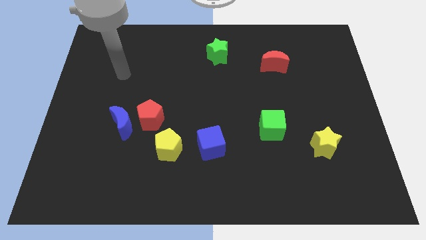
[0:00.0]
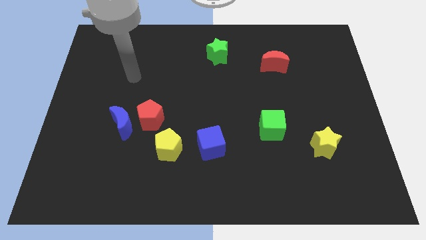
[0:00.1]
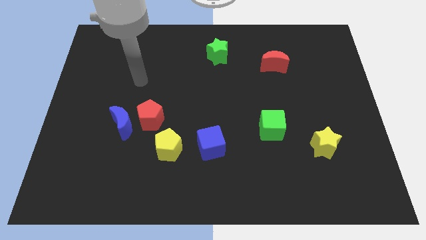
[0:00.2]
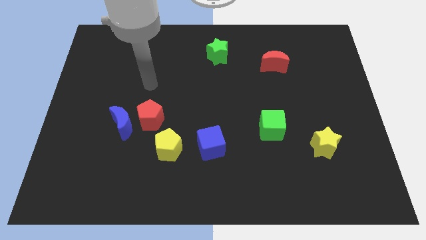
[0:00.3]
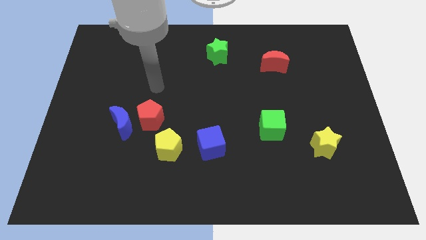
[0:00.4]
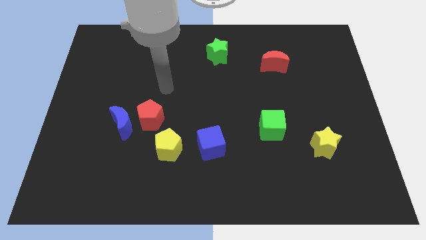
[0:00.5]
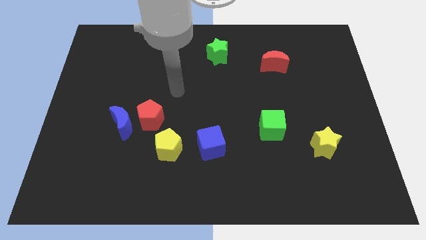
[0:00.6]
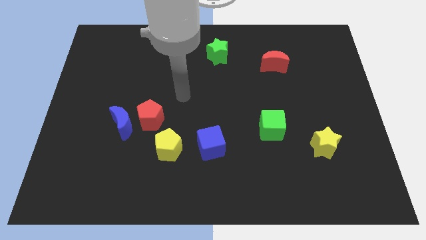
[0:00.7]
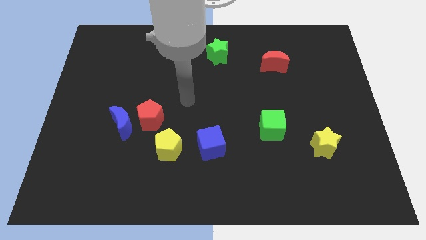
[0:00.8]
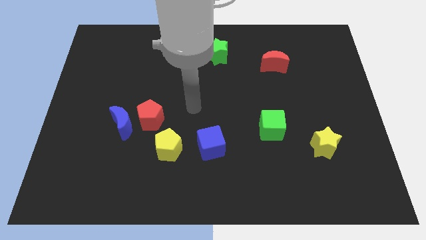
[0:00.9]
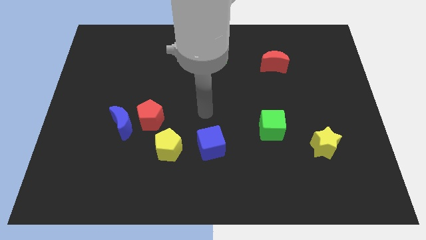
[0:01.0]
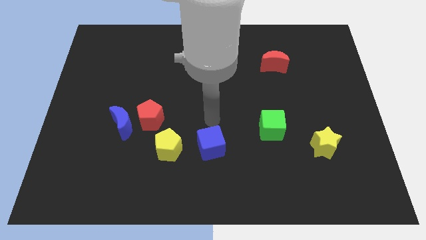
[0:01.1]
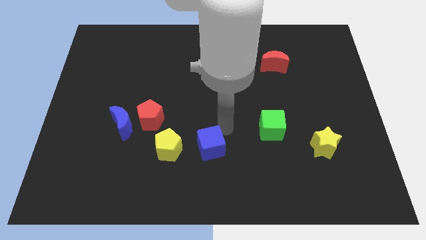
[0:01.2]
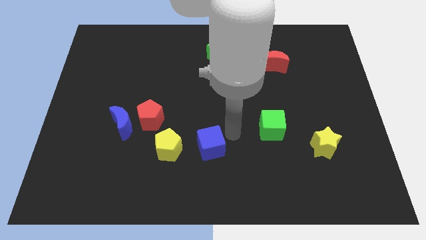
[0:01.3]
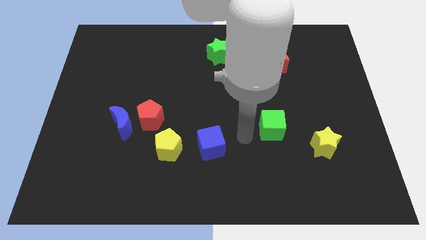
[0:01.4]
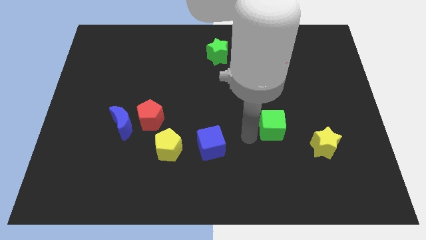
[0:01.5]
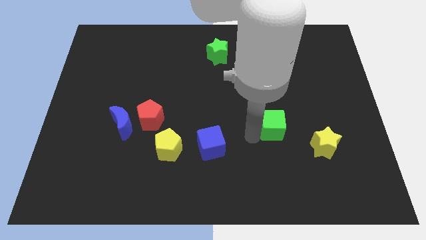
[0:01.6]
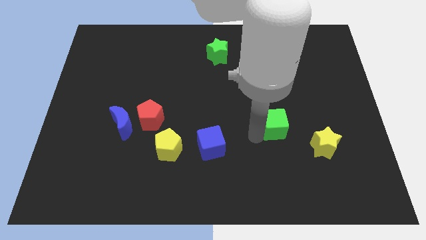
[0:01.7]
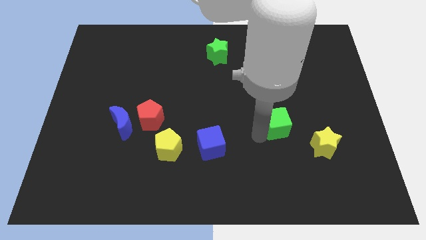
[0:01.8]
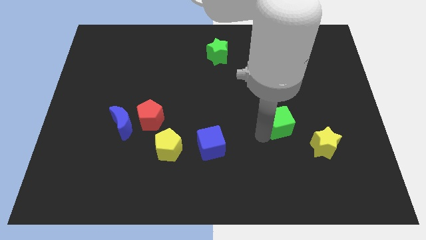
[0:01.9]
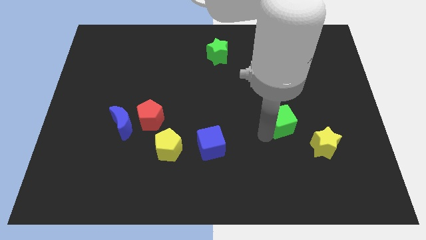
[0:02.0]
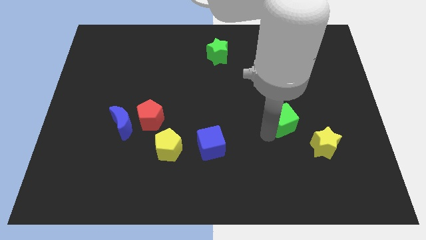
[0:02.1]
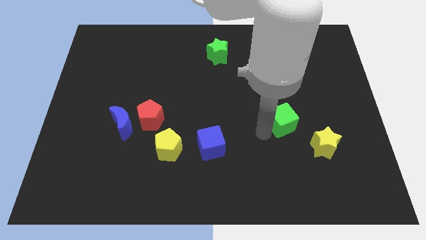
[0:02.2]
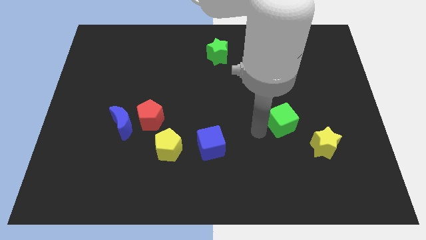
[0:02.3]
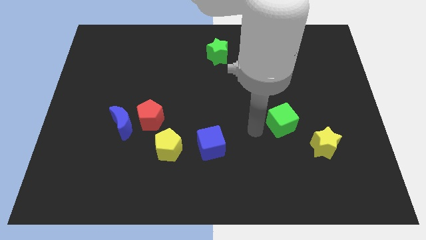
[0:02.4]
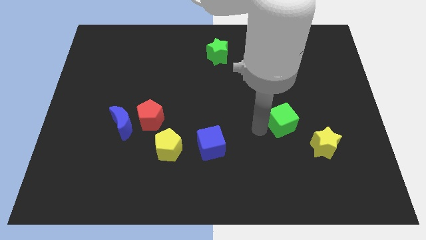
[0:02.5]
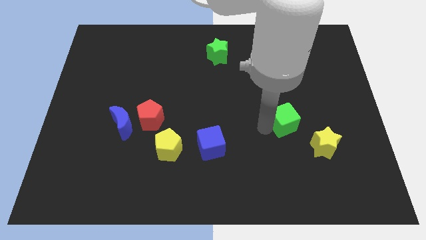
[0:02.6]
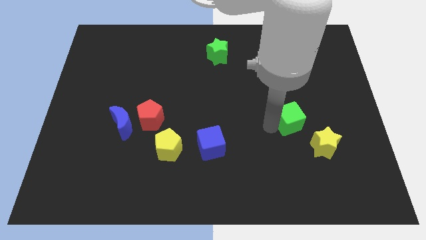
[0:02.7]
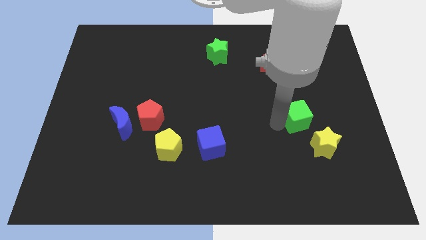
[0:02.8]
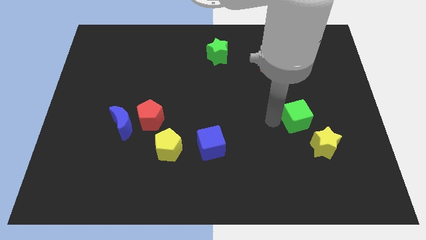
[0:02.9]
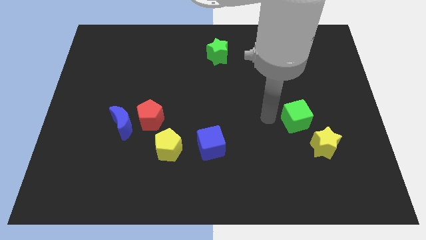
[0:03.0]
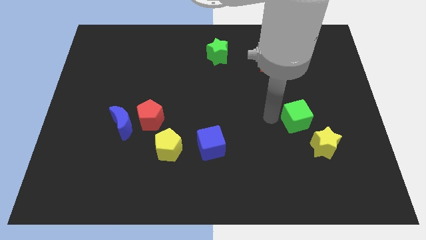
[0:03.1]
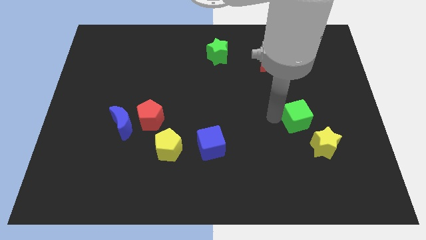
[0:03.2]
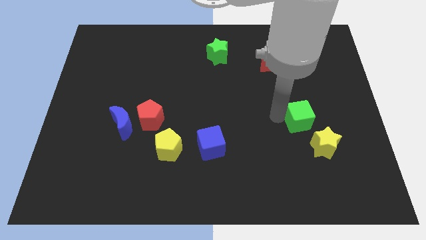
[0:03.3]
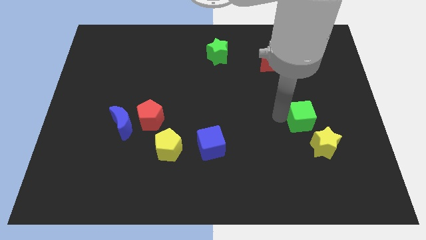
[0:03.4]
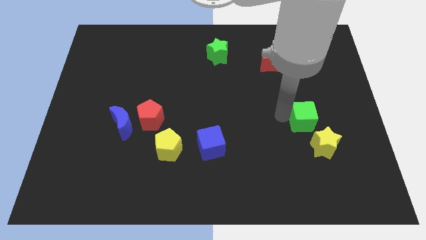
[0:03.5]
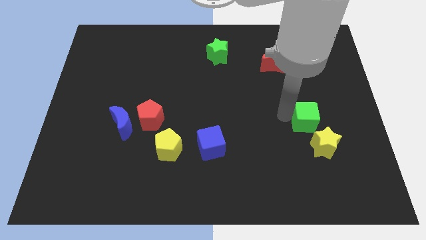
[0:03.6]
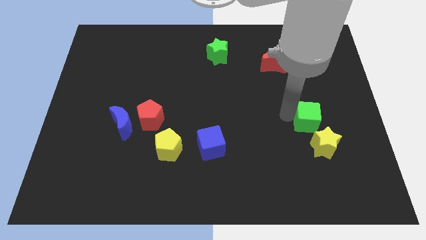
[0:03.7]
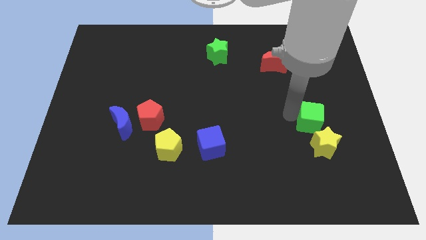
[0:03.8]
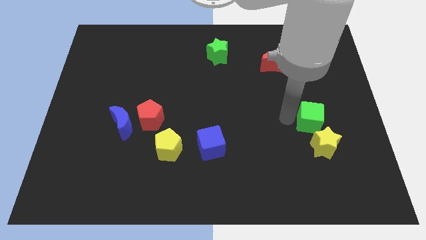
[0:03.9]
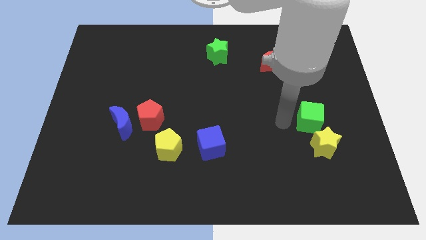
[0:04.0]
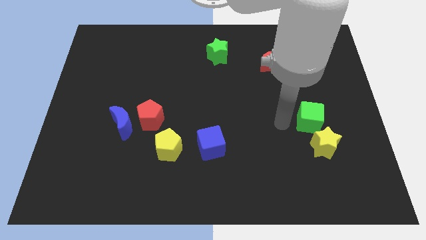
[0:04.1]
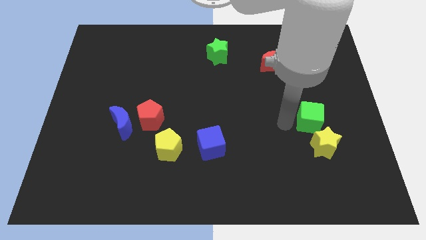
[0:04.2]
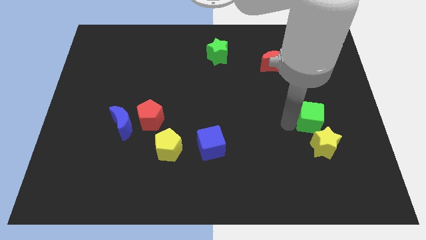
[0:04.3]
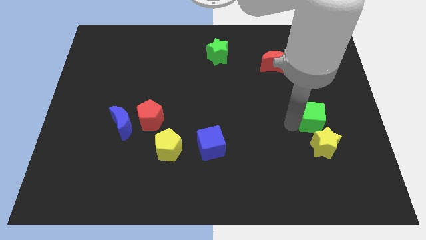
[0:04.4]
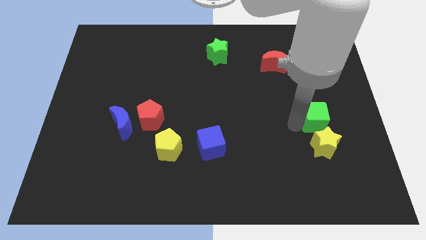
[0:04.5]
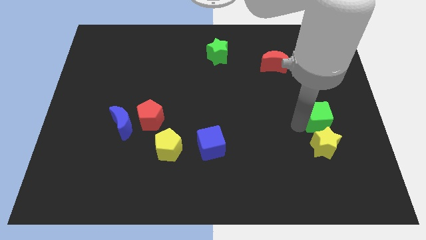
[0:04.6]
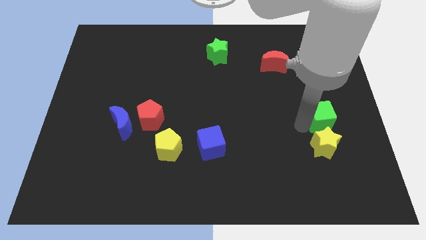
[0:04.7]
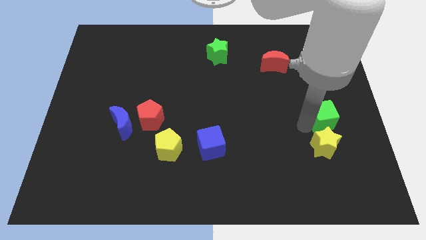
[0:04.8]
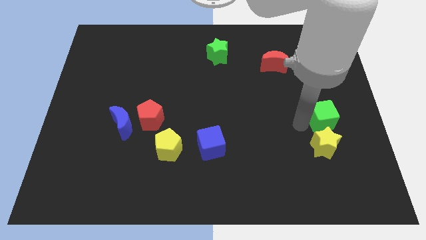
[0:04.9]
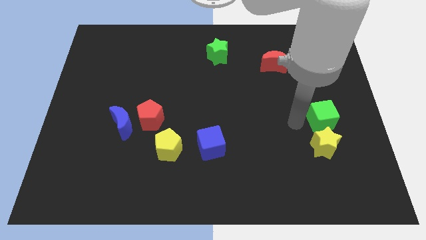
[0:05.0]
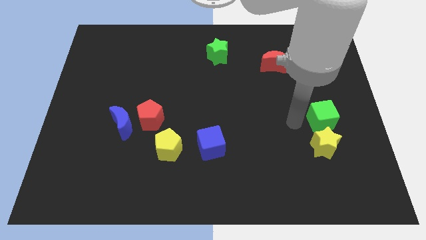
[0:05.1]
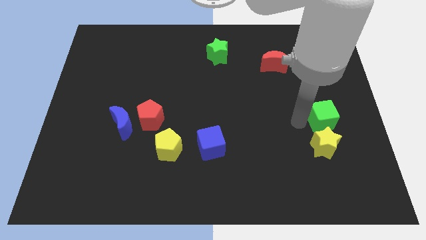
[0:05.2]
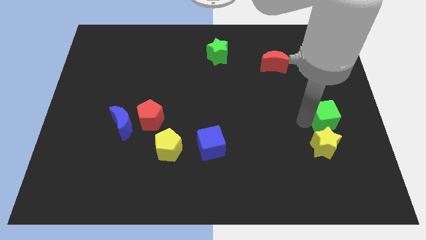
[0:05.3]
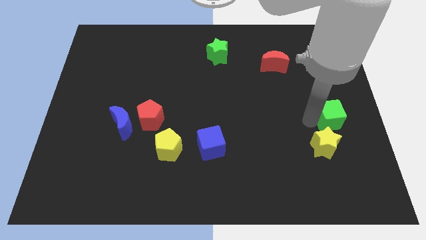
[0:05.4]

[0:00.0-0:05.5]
slide the green cube to the center right

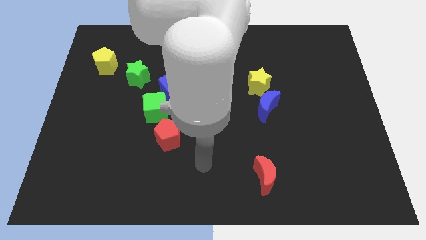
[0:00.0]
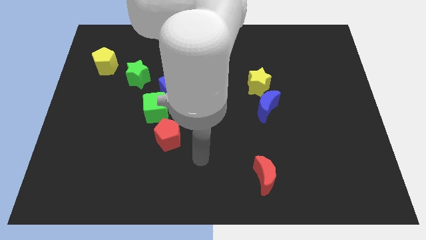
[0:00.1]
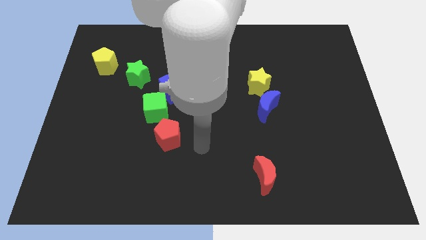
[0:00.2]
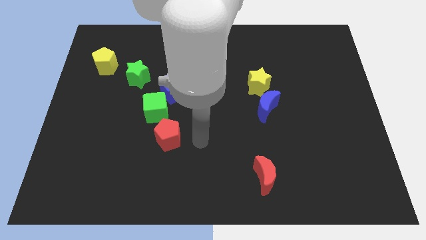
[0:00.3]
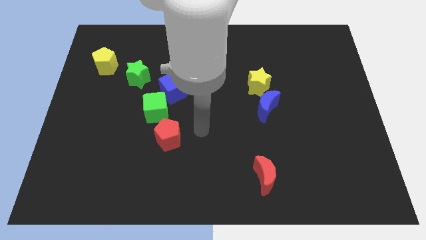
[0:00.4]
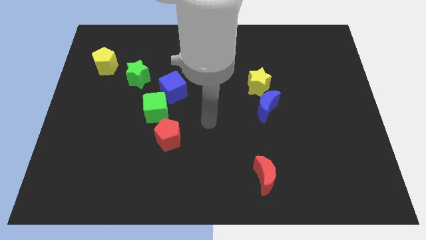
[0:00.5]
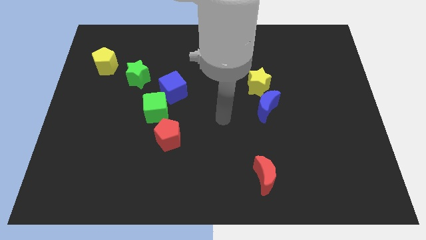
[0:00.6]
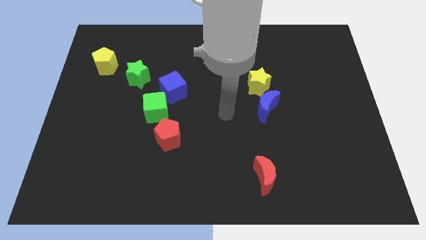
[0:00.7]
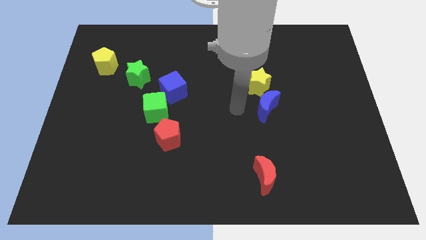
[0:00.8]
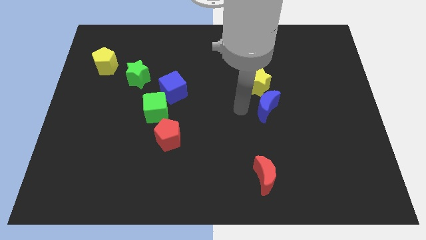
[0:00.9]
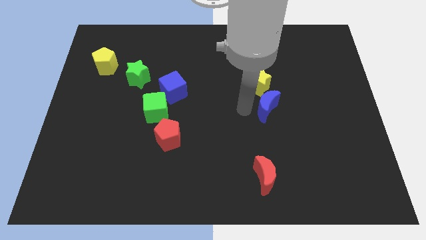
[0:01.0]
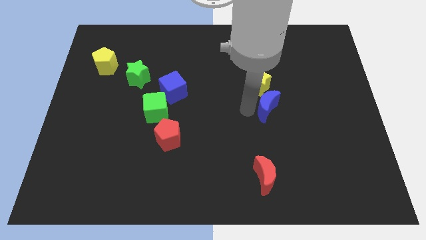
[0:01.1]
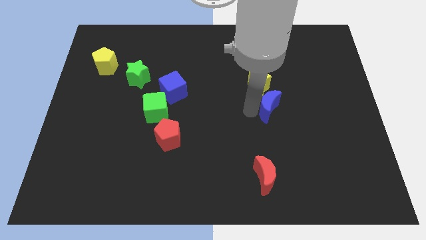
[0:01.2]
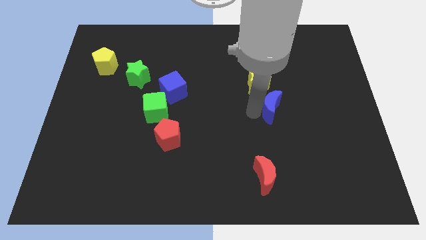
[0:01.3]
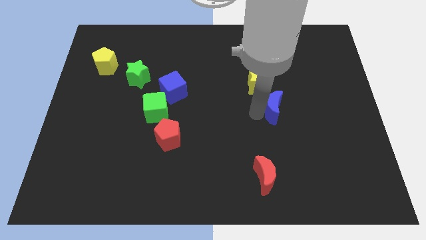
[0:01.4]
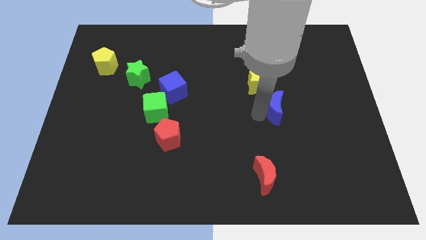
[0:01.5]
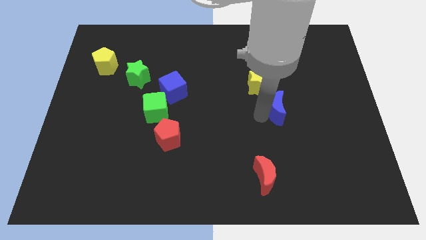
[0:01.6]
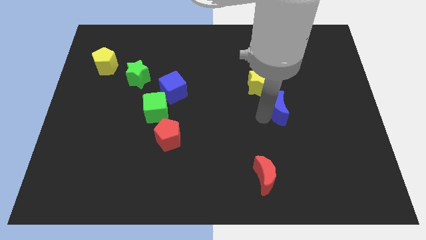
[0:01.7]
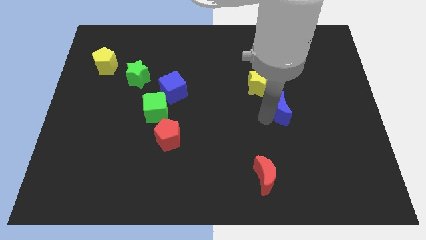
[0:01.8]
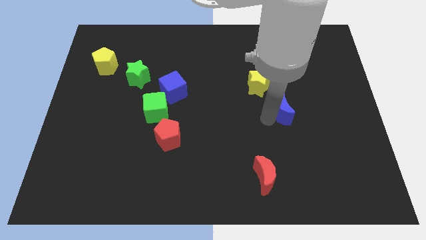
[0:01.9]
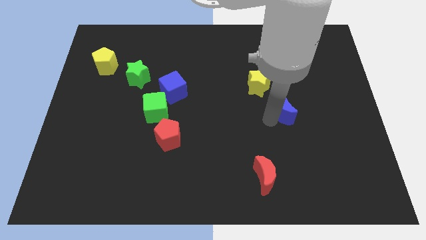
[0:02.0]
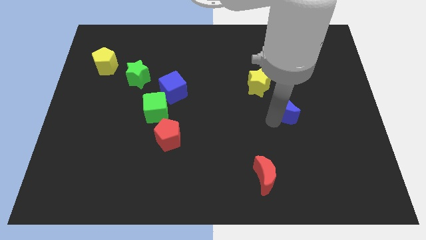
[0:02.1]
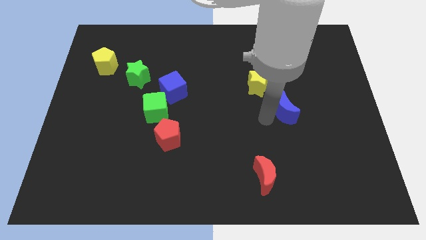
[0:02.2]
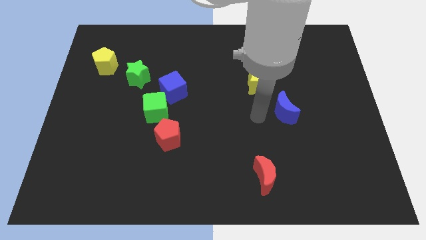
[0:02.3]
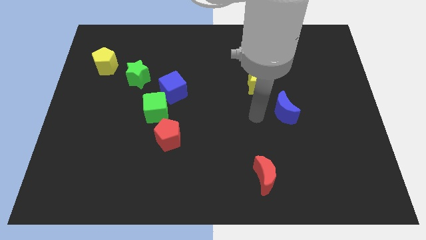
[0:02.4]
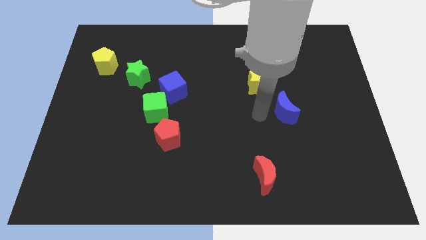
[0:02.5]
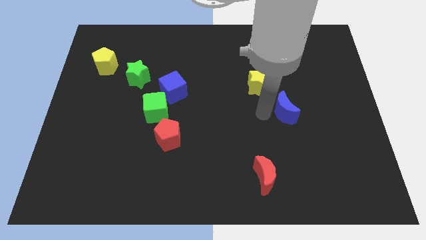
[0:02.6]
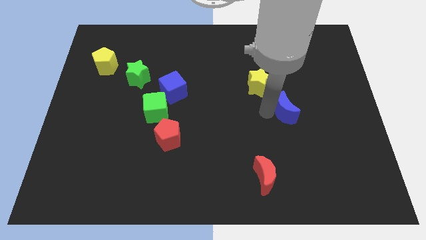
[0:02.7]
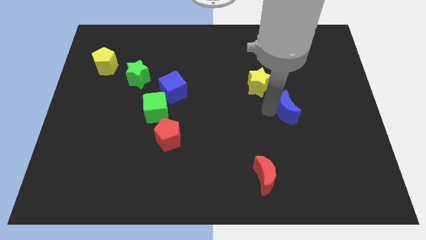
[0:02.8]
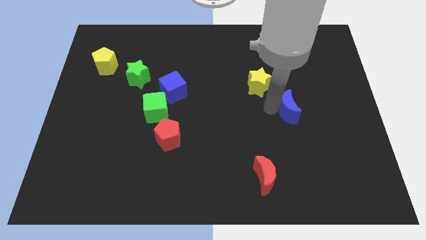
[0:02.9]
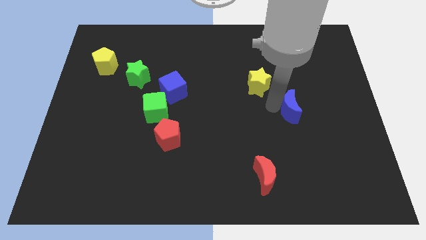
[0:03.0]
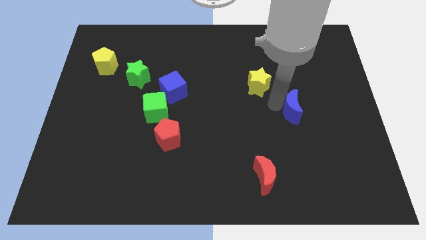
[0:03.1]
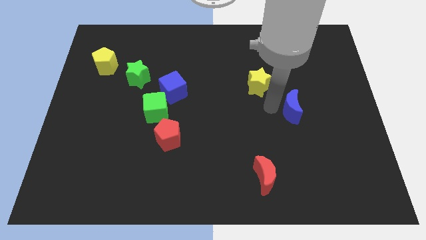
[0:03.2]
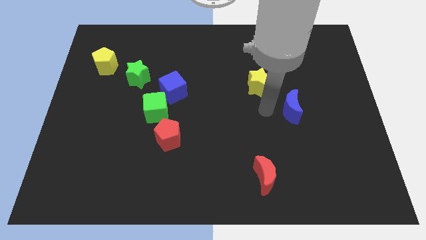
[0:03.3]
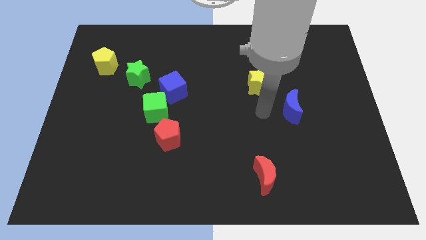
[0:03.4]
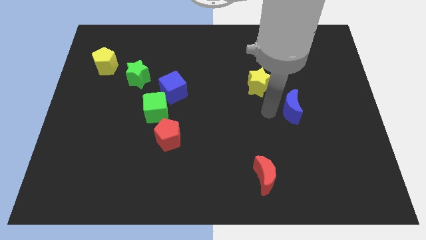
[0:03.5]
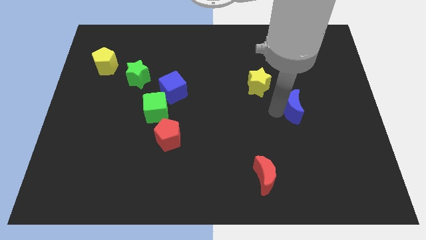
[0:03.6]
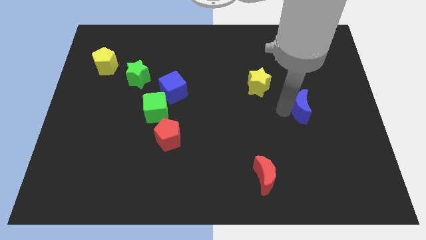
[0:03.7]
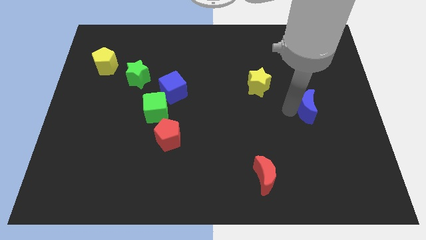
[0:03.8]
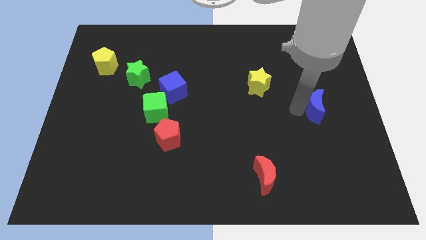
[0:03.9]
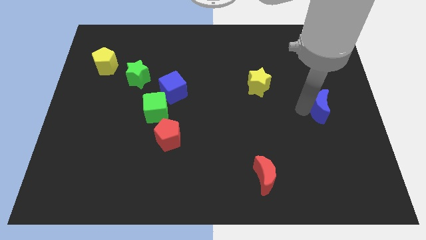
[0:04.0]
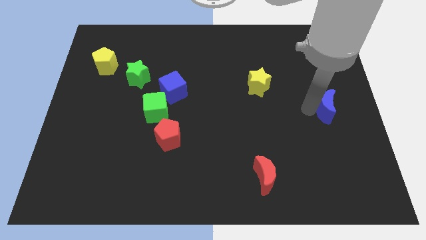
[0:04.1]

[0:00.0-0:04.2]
move the blue moon to the right side of the board
